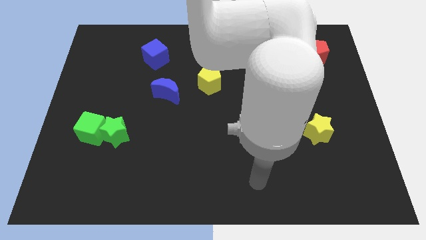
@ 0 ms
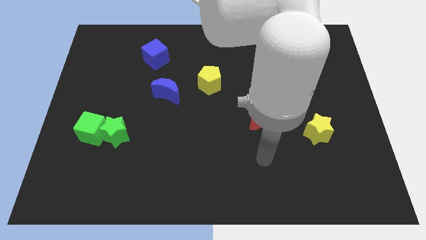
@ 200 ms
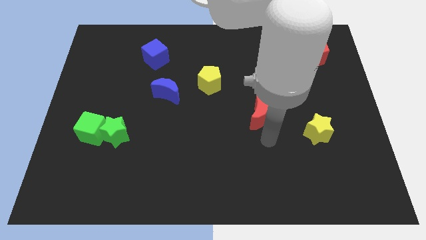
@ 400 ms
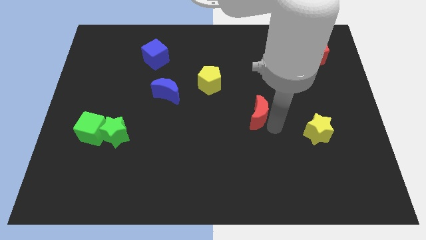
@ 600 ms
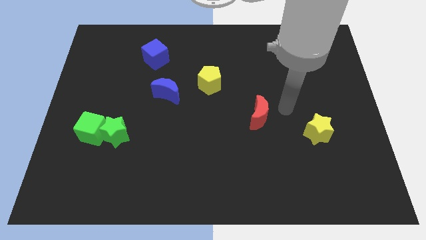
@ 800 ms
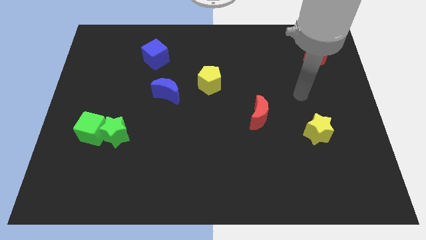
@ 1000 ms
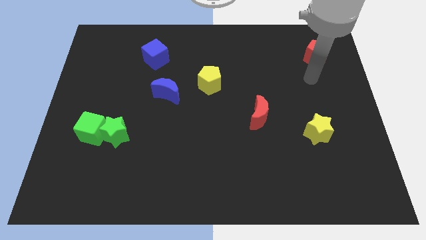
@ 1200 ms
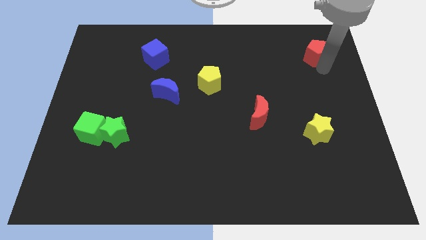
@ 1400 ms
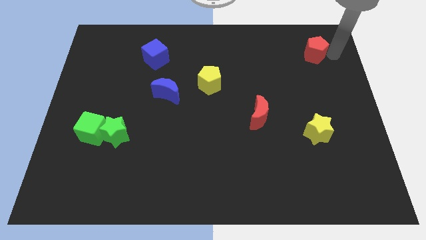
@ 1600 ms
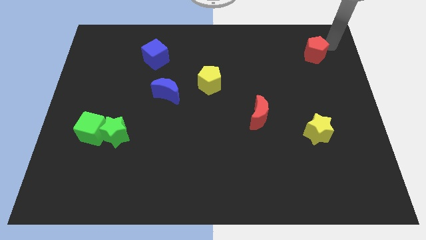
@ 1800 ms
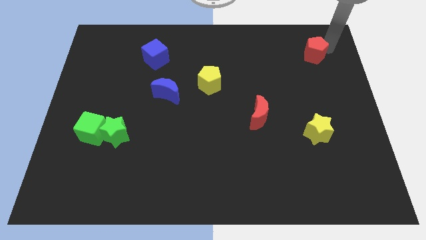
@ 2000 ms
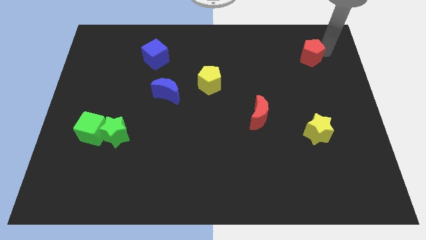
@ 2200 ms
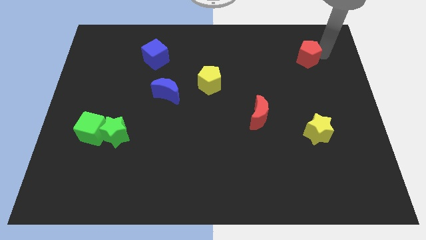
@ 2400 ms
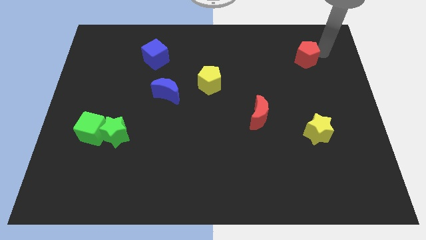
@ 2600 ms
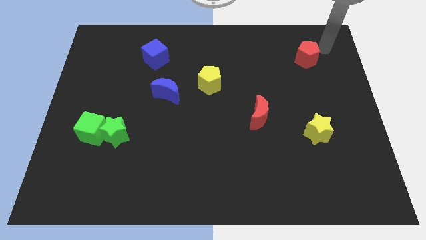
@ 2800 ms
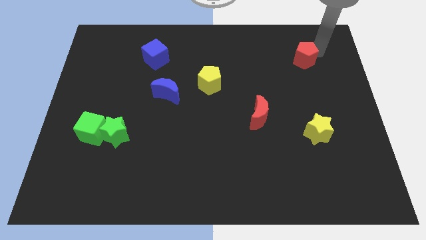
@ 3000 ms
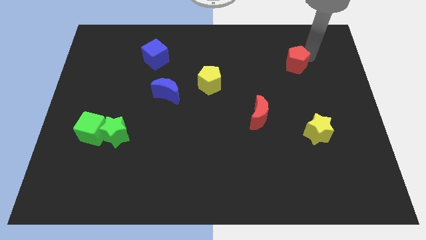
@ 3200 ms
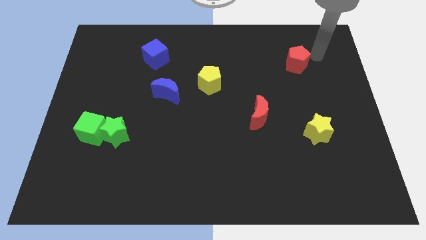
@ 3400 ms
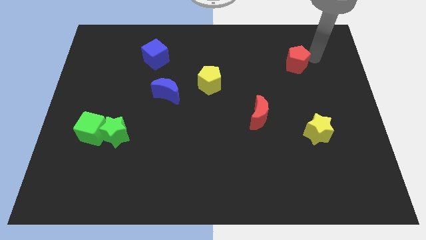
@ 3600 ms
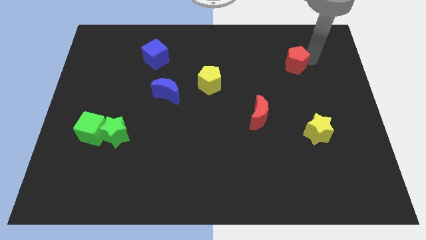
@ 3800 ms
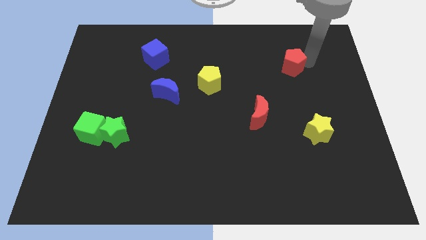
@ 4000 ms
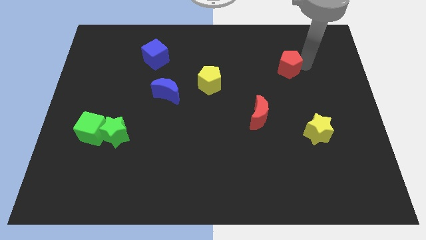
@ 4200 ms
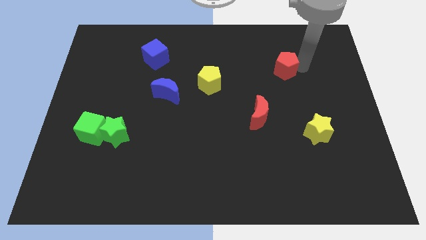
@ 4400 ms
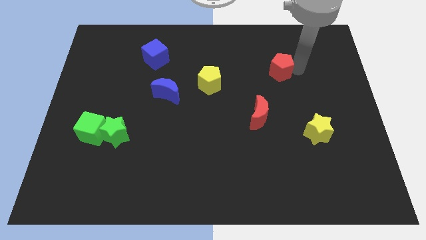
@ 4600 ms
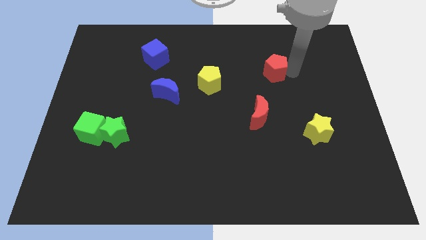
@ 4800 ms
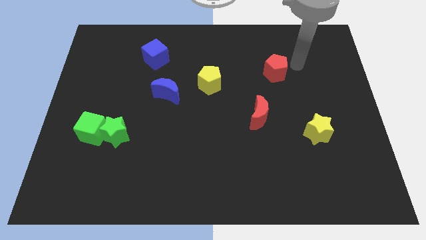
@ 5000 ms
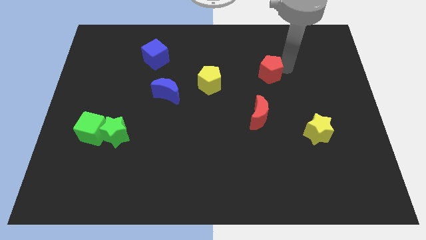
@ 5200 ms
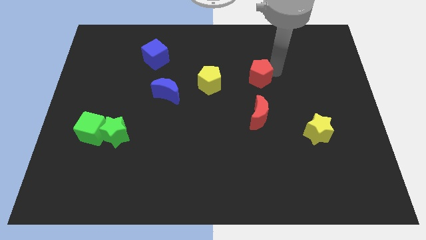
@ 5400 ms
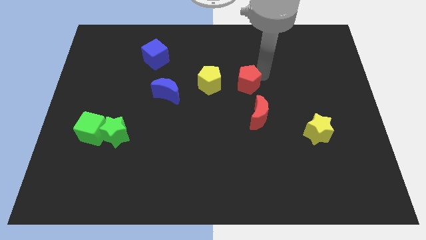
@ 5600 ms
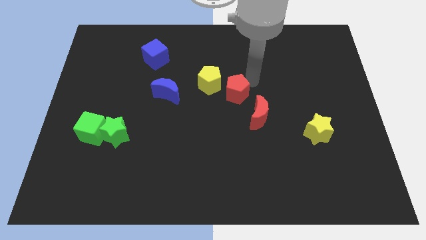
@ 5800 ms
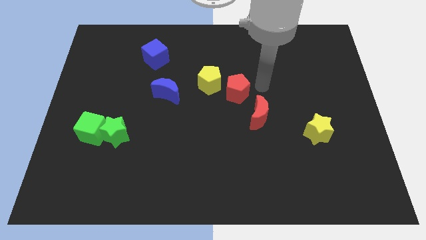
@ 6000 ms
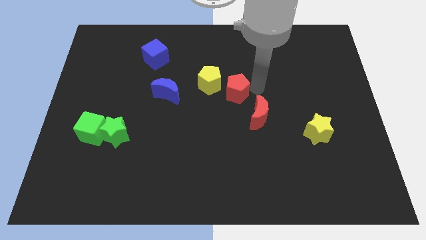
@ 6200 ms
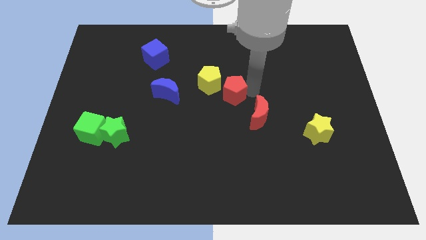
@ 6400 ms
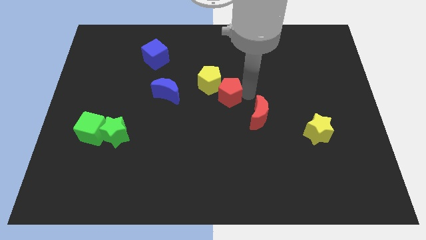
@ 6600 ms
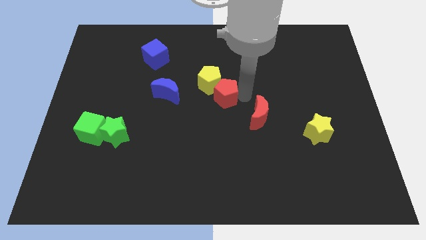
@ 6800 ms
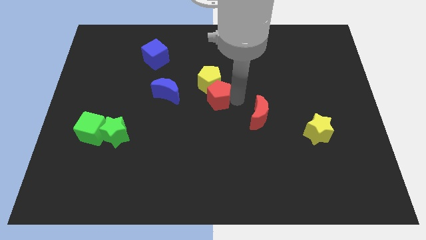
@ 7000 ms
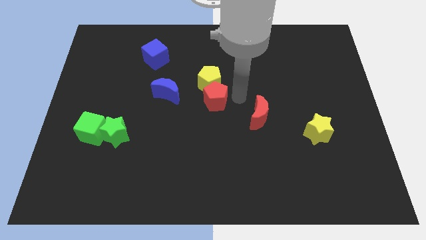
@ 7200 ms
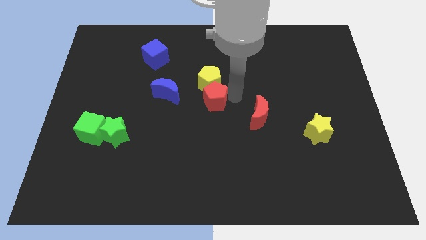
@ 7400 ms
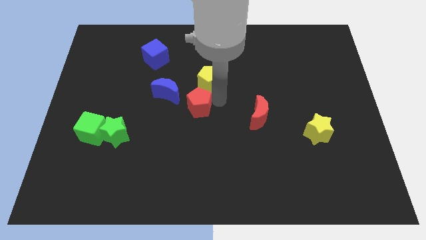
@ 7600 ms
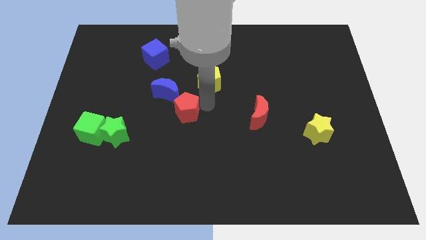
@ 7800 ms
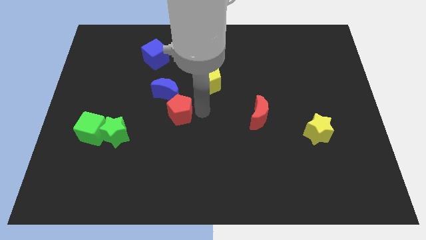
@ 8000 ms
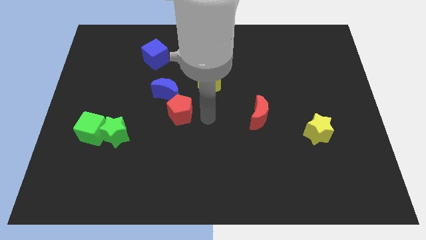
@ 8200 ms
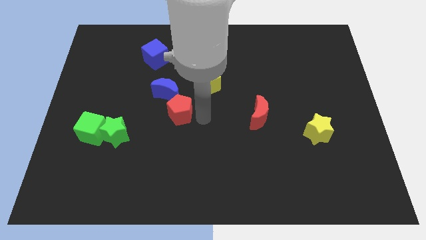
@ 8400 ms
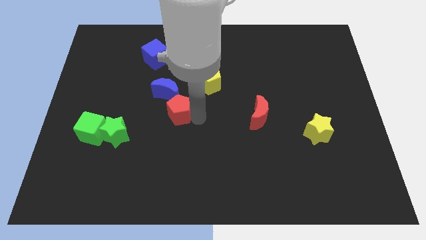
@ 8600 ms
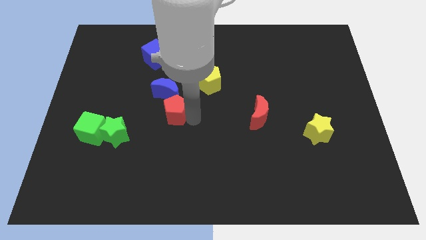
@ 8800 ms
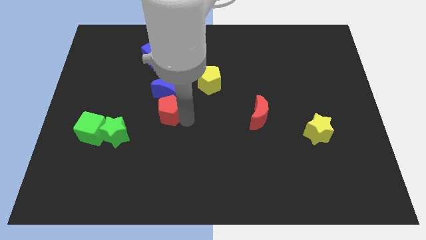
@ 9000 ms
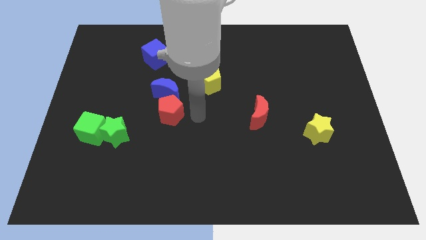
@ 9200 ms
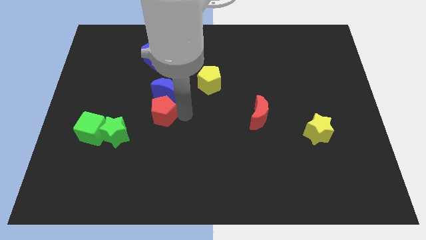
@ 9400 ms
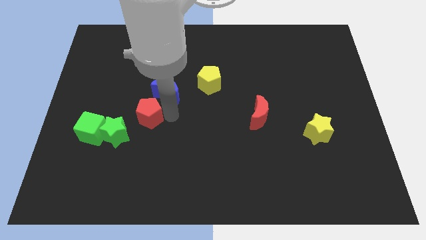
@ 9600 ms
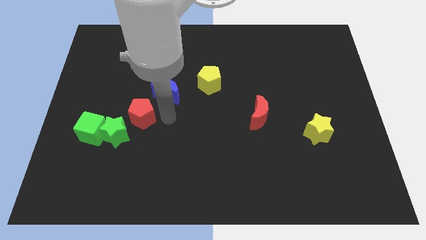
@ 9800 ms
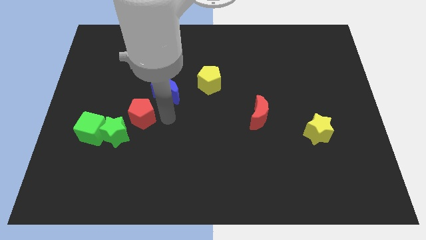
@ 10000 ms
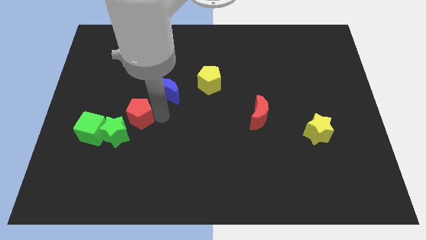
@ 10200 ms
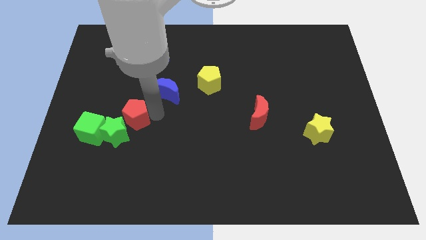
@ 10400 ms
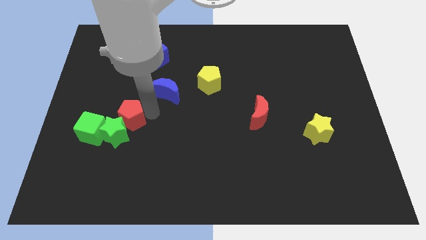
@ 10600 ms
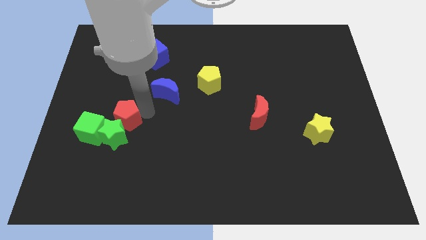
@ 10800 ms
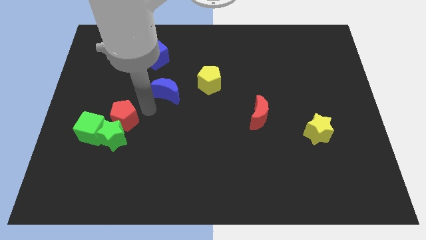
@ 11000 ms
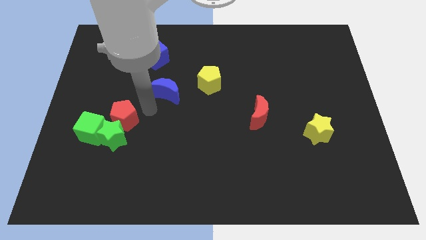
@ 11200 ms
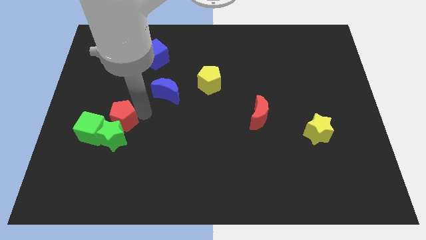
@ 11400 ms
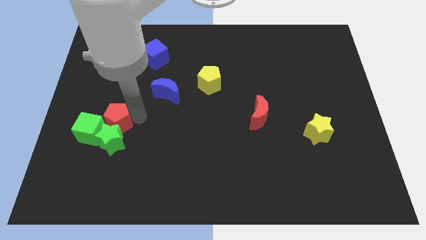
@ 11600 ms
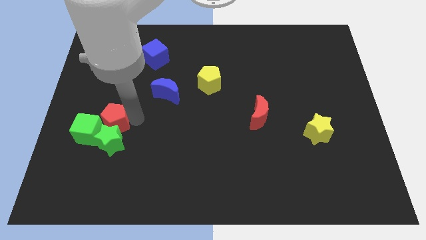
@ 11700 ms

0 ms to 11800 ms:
slide the red pentagon next to the green cube

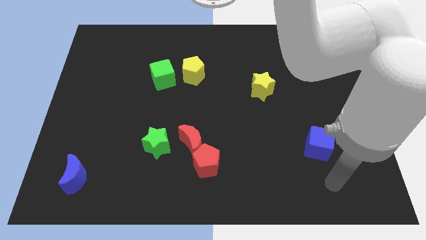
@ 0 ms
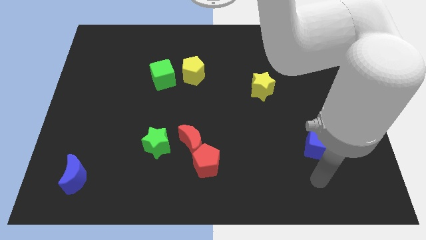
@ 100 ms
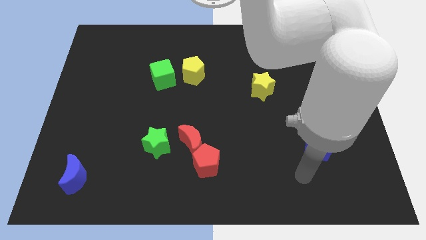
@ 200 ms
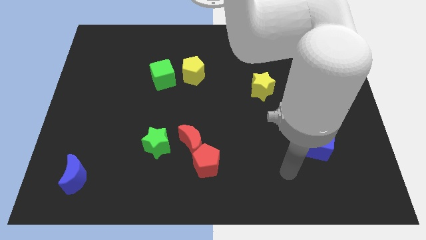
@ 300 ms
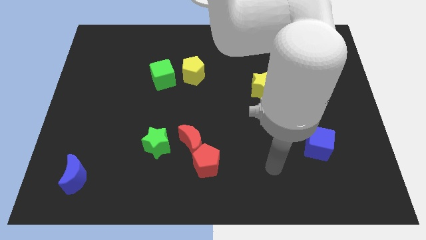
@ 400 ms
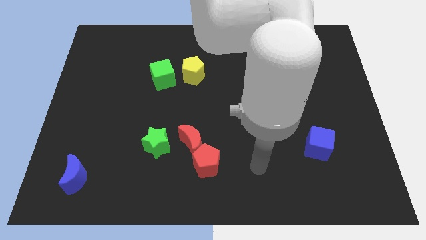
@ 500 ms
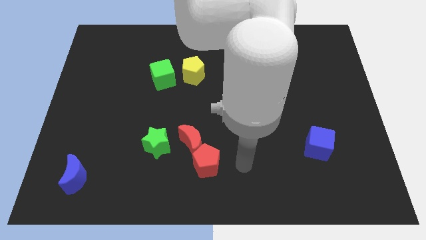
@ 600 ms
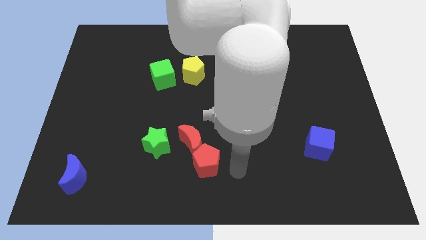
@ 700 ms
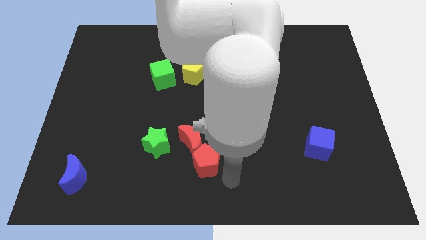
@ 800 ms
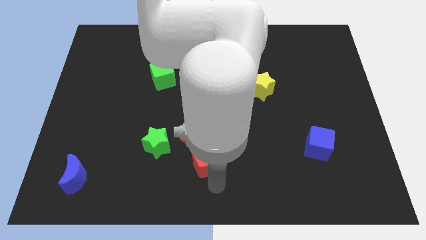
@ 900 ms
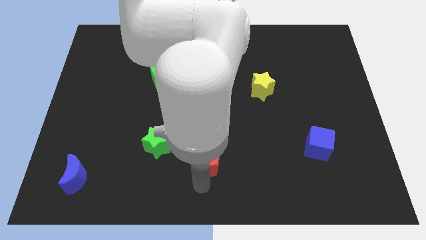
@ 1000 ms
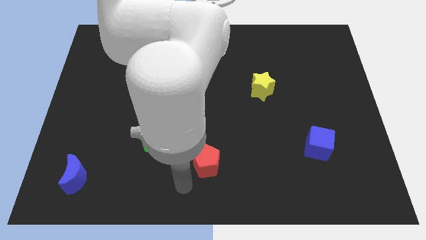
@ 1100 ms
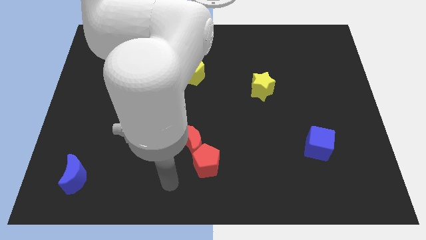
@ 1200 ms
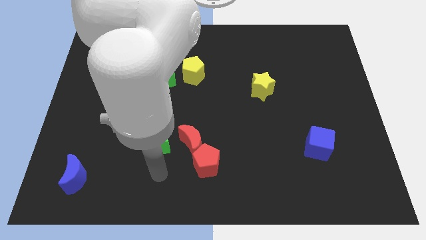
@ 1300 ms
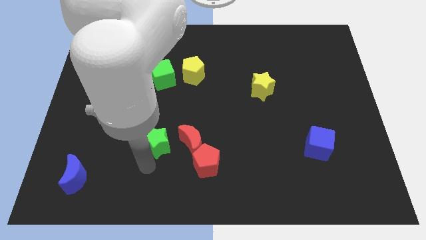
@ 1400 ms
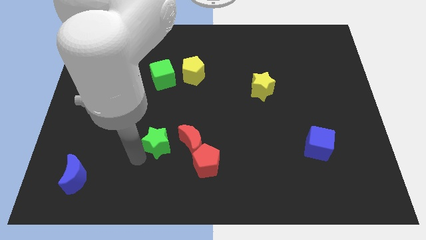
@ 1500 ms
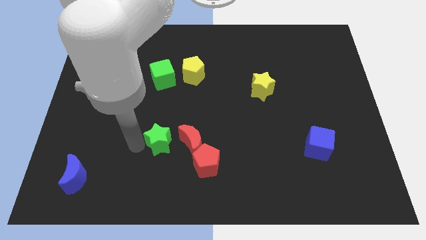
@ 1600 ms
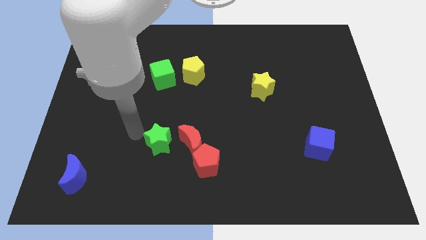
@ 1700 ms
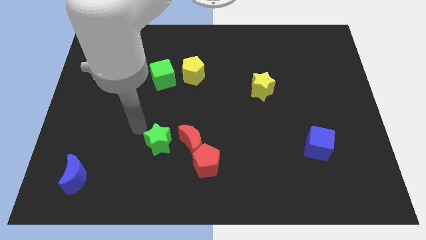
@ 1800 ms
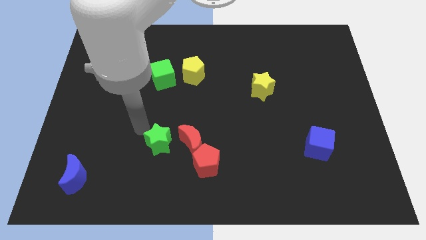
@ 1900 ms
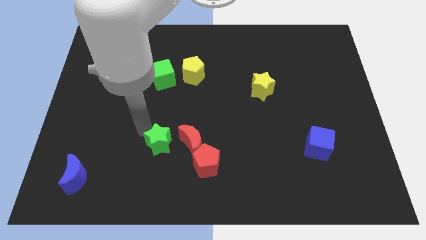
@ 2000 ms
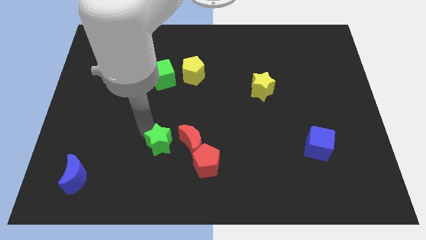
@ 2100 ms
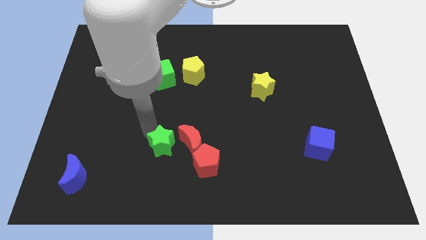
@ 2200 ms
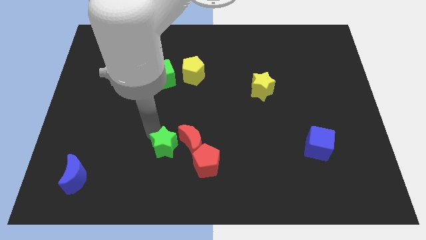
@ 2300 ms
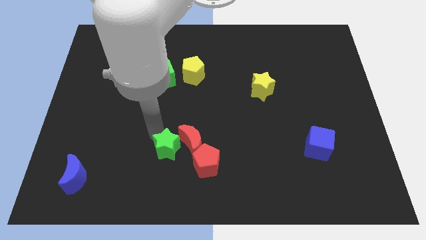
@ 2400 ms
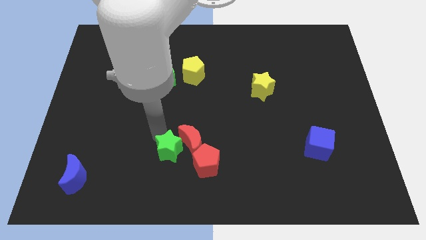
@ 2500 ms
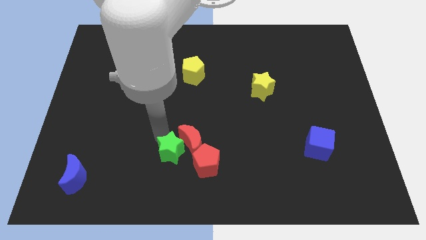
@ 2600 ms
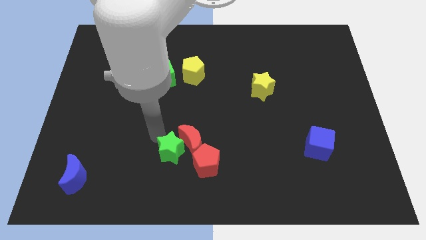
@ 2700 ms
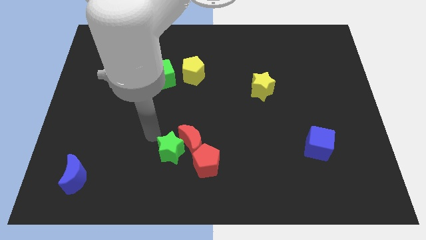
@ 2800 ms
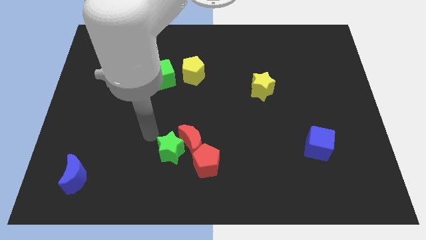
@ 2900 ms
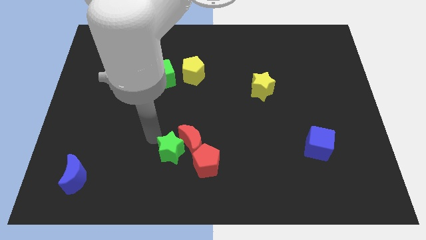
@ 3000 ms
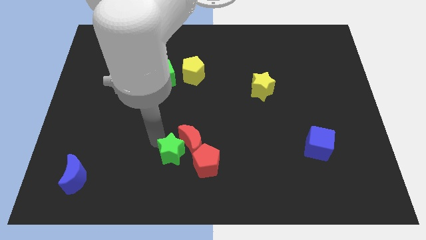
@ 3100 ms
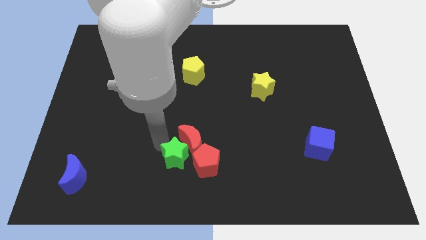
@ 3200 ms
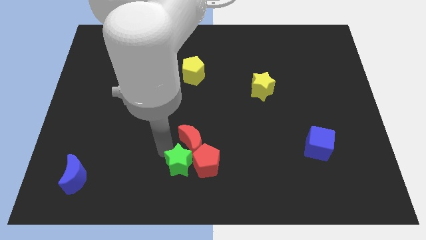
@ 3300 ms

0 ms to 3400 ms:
slide the green star close to the red pentagon
